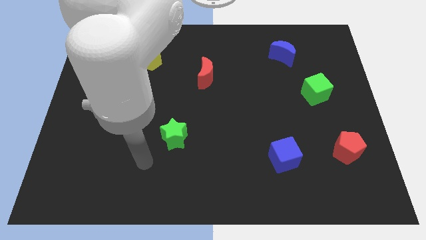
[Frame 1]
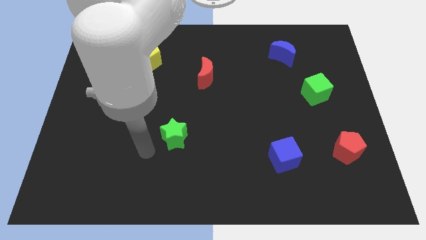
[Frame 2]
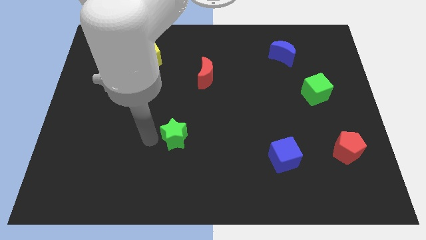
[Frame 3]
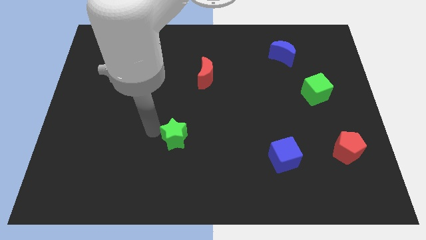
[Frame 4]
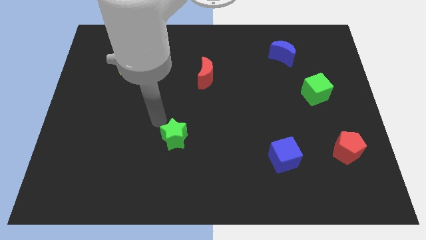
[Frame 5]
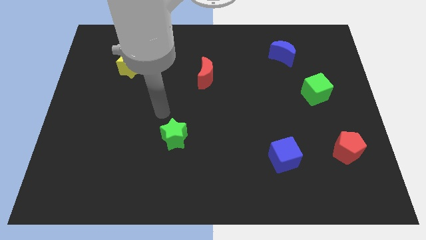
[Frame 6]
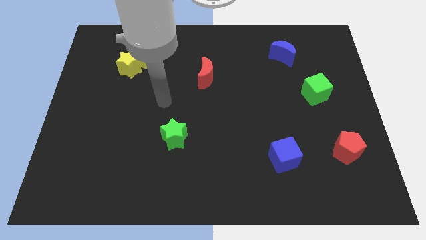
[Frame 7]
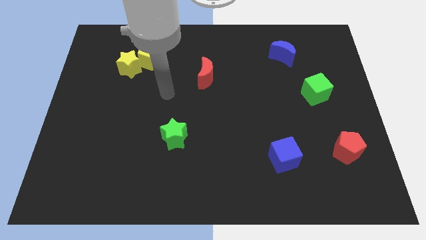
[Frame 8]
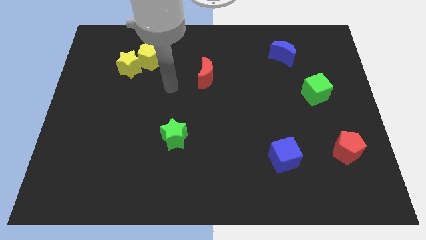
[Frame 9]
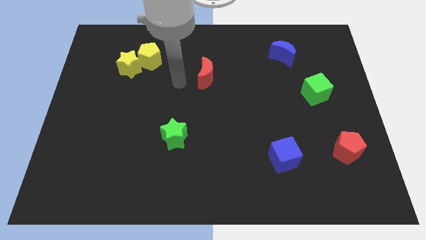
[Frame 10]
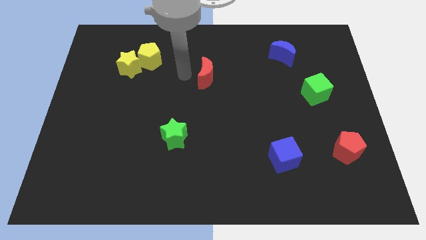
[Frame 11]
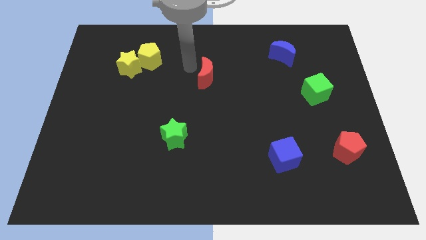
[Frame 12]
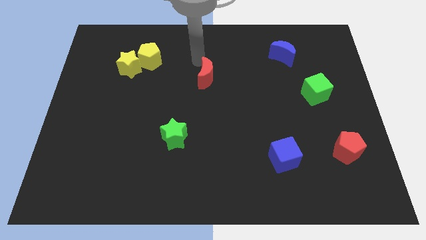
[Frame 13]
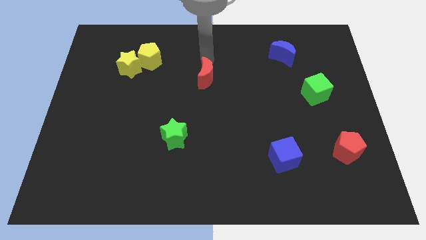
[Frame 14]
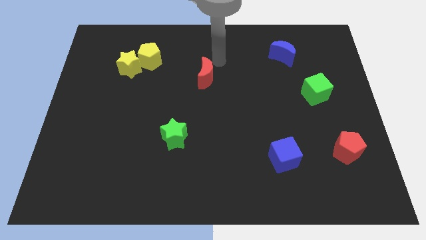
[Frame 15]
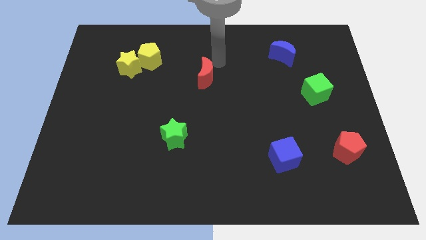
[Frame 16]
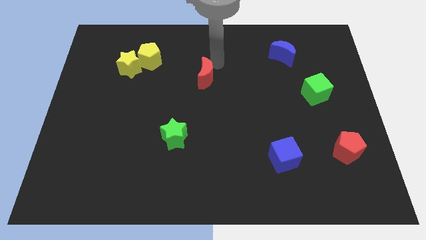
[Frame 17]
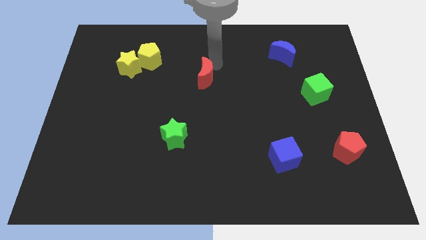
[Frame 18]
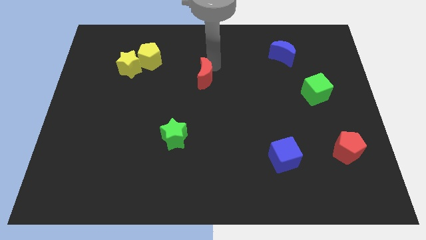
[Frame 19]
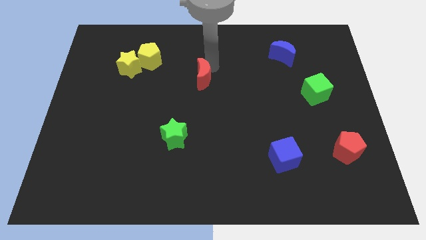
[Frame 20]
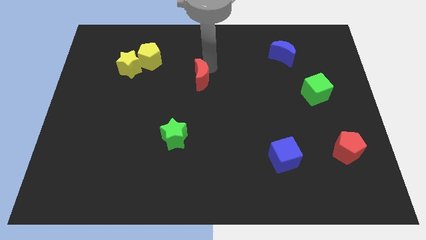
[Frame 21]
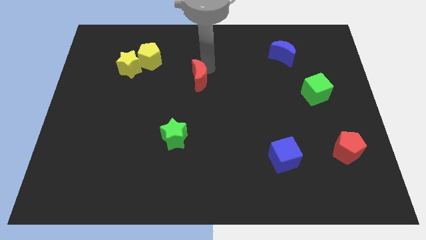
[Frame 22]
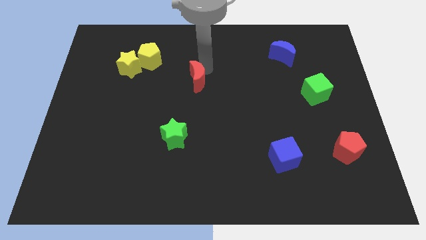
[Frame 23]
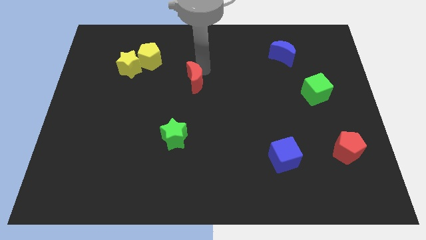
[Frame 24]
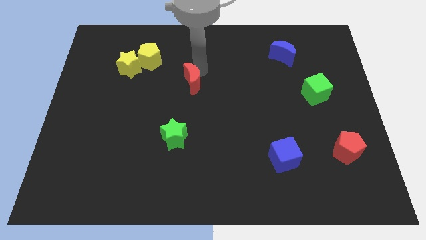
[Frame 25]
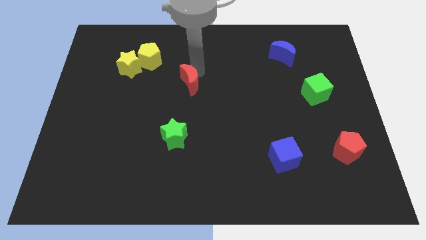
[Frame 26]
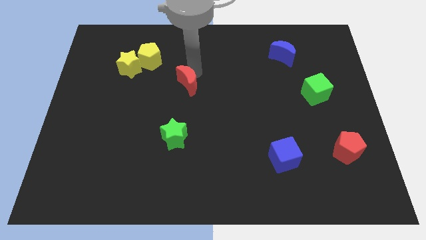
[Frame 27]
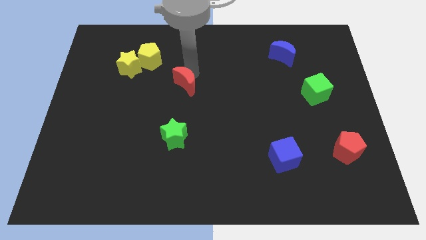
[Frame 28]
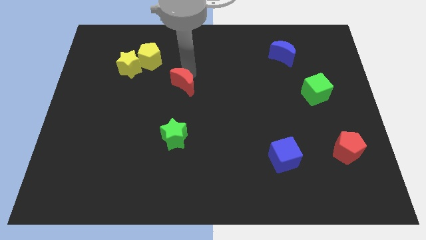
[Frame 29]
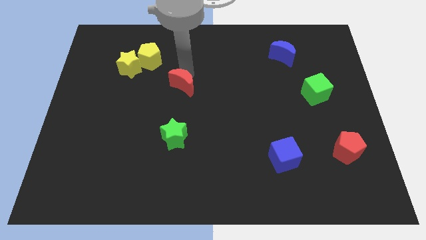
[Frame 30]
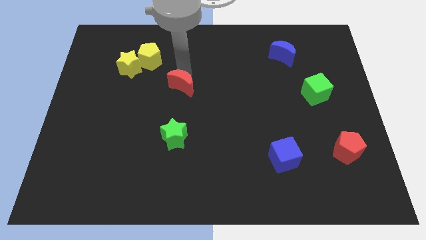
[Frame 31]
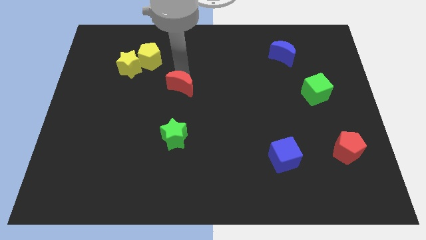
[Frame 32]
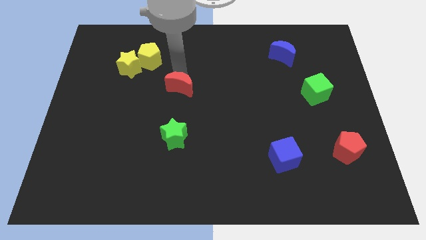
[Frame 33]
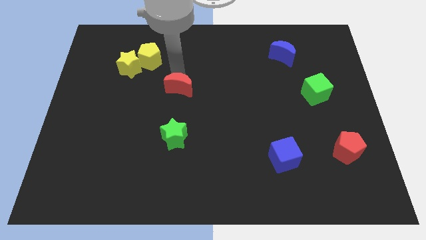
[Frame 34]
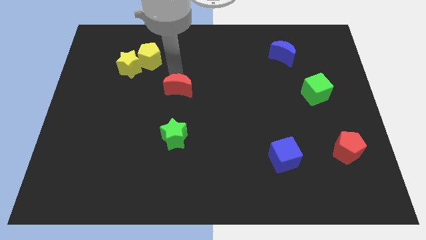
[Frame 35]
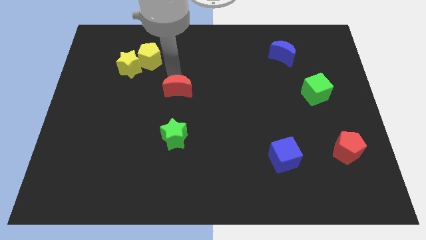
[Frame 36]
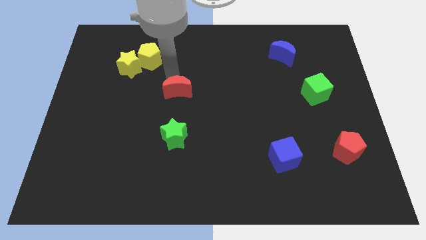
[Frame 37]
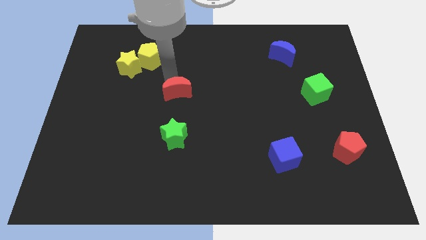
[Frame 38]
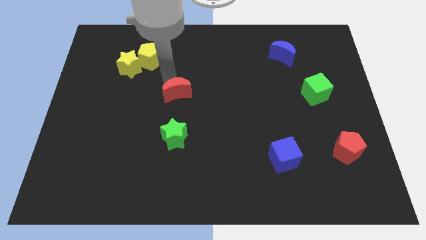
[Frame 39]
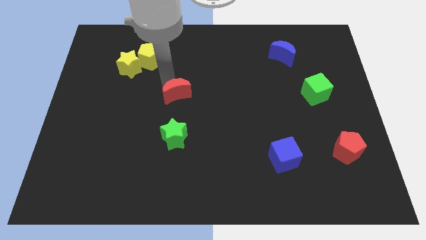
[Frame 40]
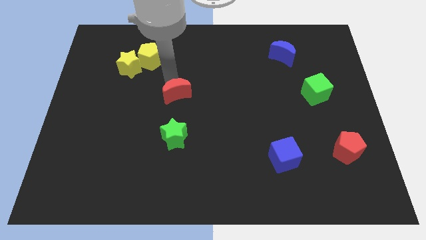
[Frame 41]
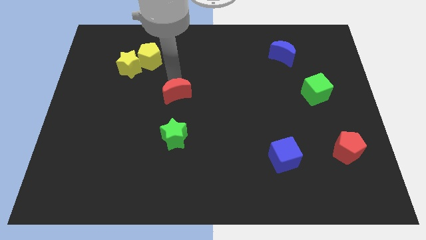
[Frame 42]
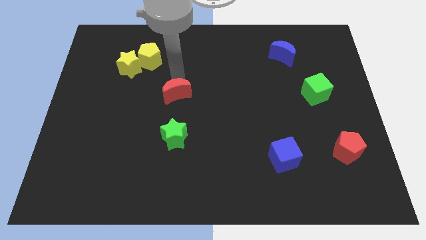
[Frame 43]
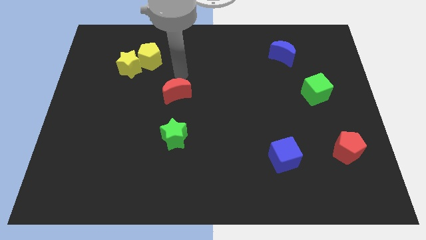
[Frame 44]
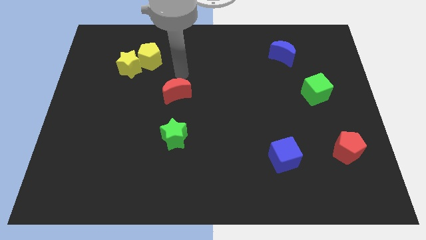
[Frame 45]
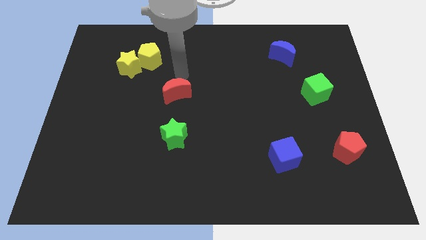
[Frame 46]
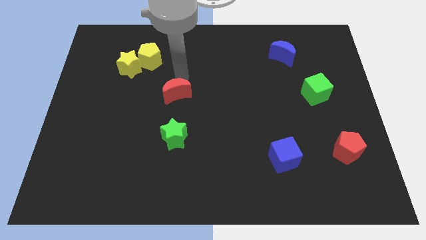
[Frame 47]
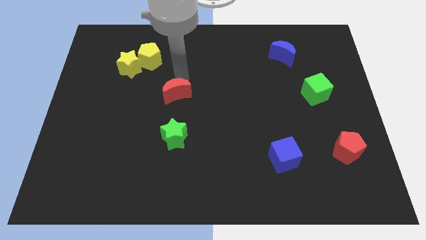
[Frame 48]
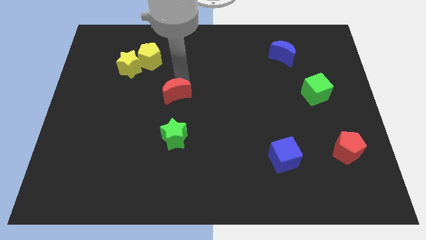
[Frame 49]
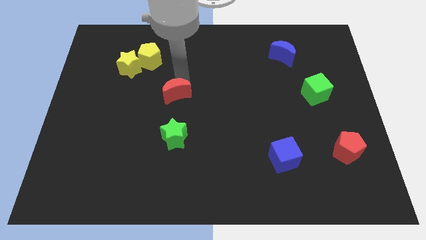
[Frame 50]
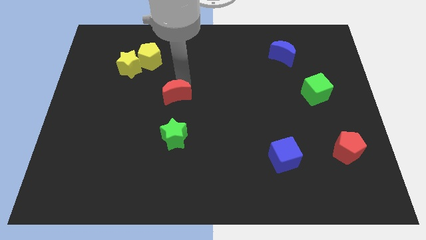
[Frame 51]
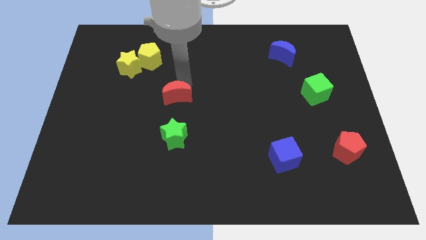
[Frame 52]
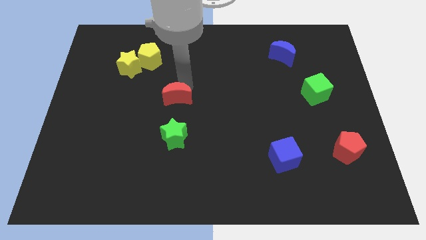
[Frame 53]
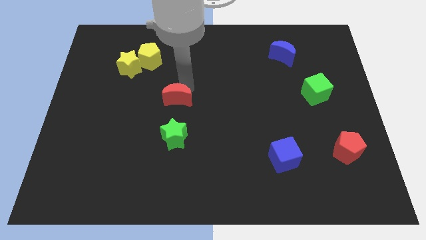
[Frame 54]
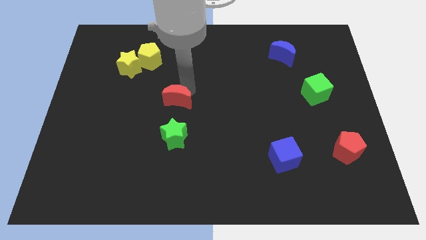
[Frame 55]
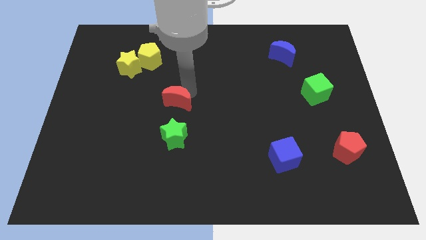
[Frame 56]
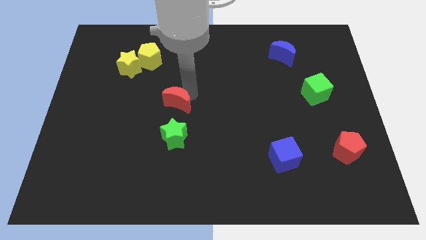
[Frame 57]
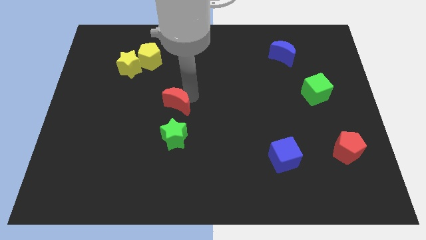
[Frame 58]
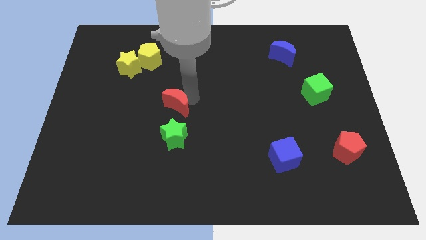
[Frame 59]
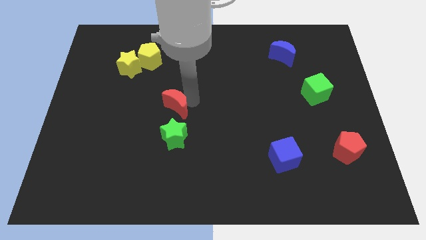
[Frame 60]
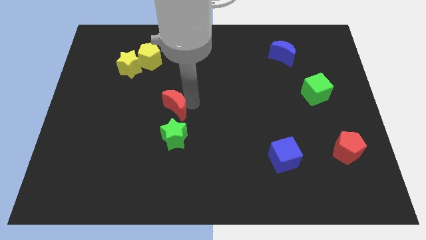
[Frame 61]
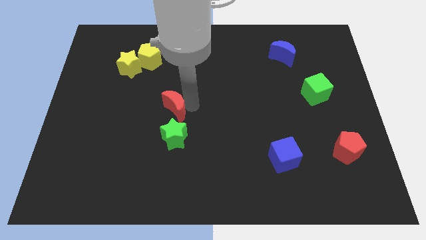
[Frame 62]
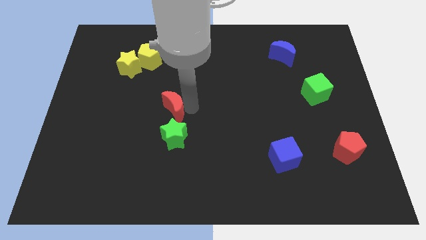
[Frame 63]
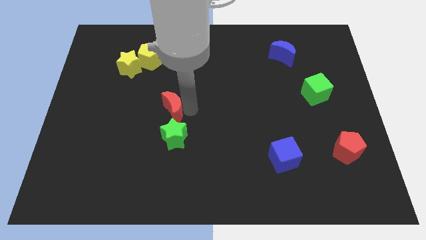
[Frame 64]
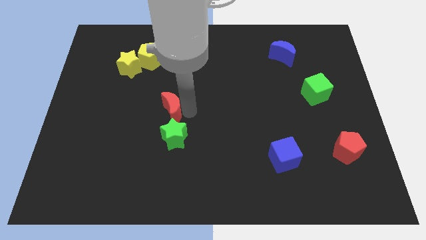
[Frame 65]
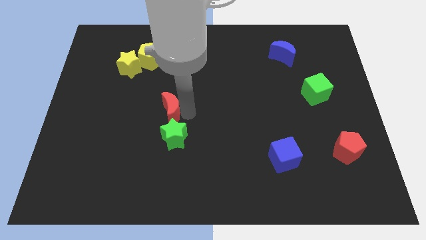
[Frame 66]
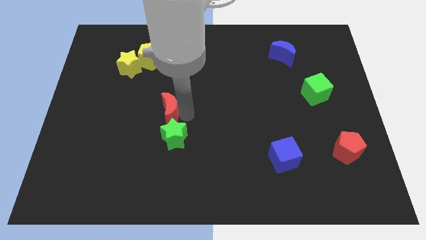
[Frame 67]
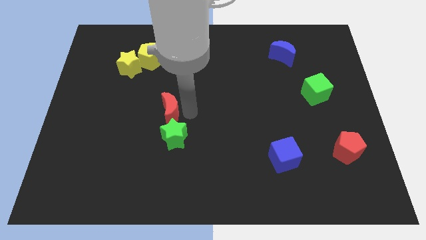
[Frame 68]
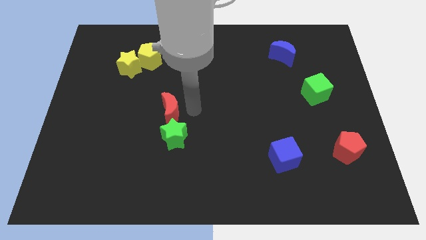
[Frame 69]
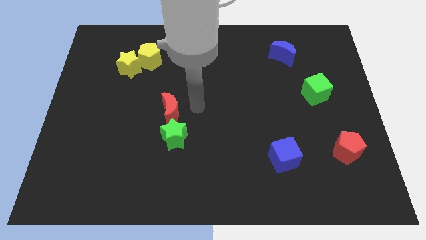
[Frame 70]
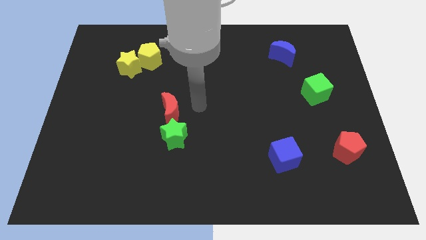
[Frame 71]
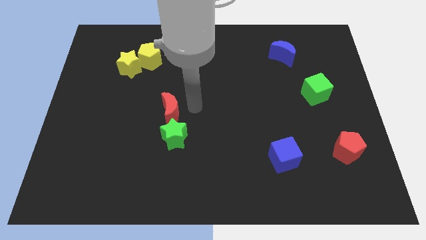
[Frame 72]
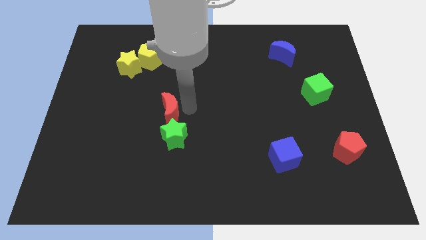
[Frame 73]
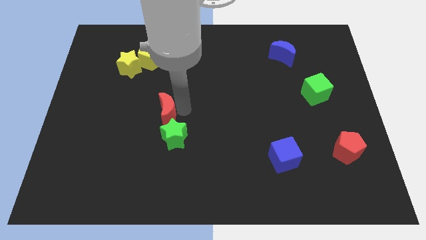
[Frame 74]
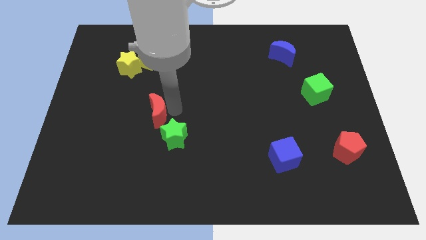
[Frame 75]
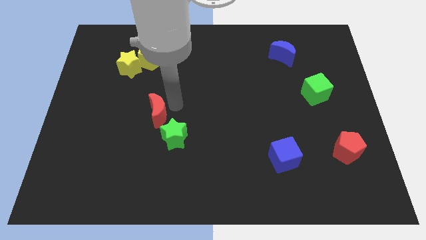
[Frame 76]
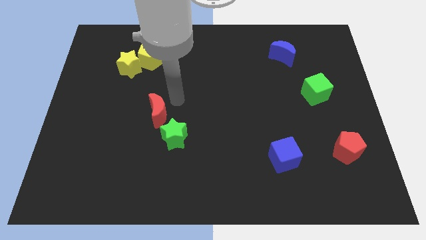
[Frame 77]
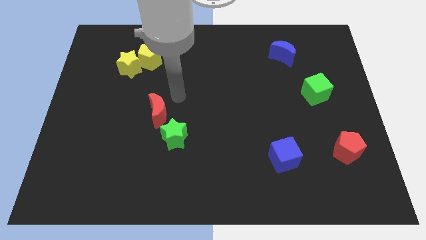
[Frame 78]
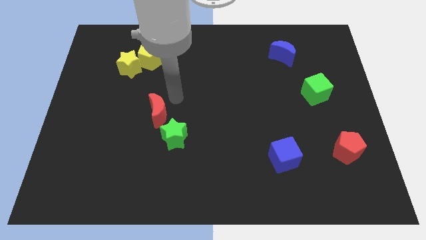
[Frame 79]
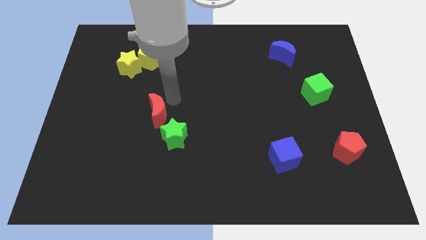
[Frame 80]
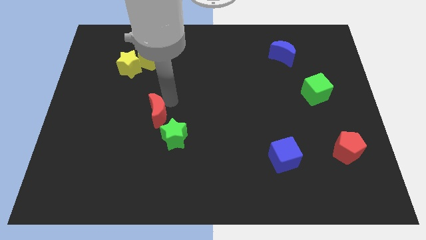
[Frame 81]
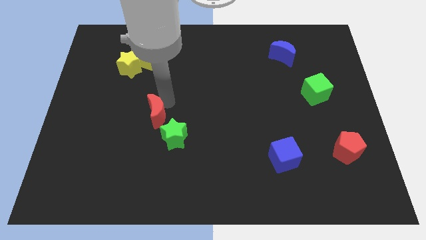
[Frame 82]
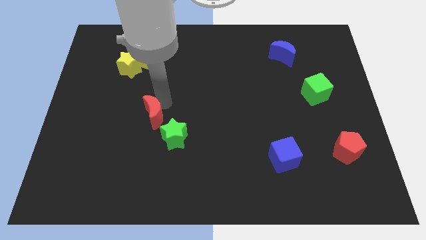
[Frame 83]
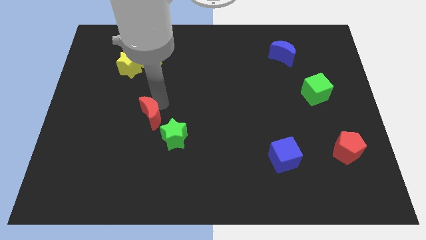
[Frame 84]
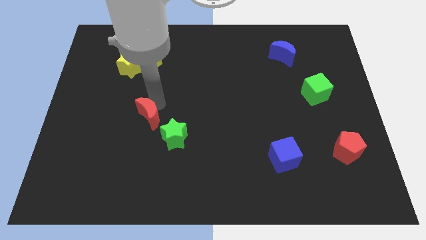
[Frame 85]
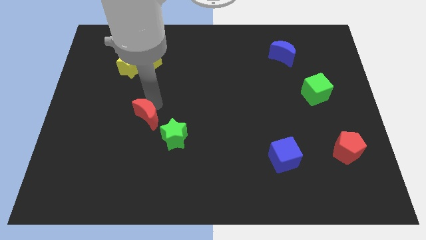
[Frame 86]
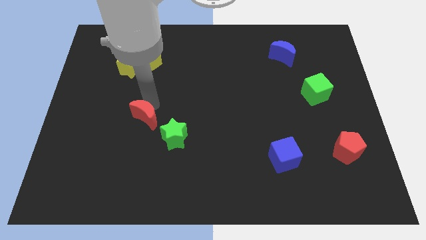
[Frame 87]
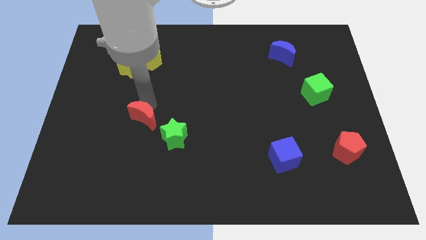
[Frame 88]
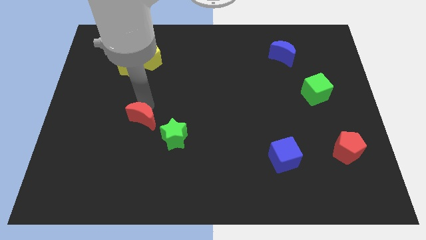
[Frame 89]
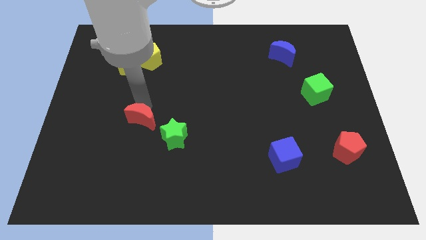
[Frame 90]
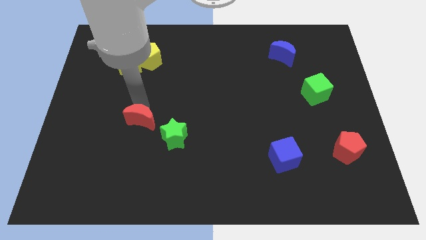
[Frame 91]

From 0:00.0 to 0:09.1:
move the red moon down and to the left diagonally
